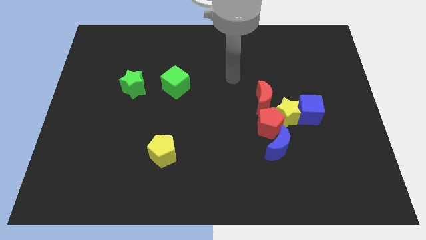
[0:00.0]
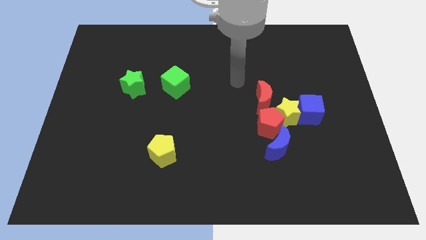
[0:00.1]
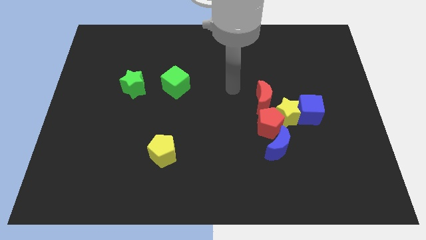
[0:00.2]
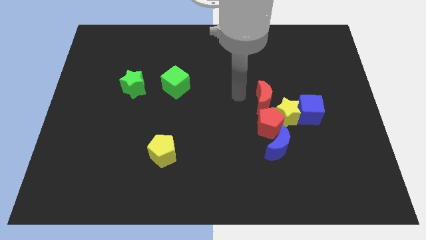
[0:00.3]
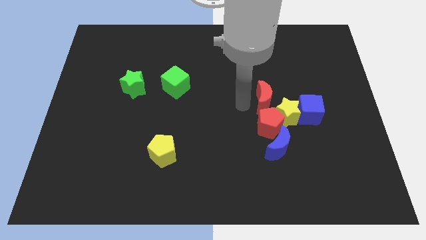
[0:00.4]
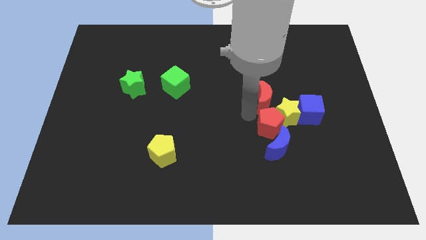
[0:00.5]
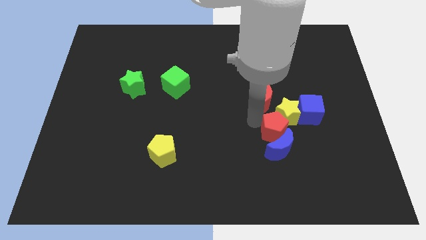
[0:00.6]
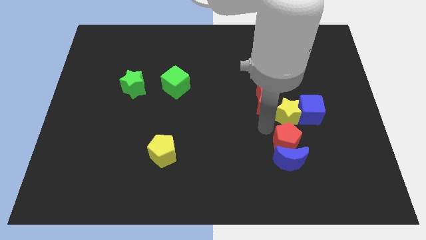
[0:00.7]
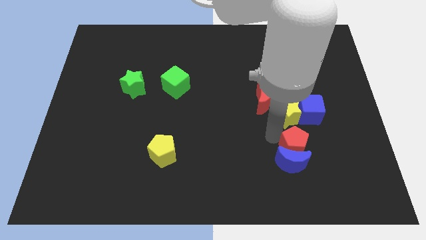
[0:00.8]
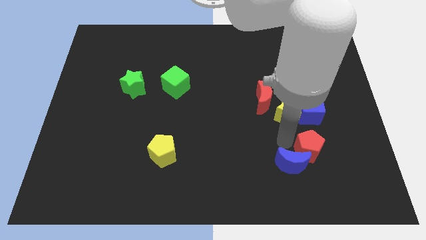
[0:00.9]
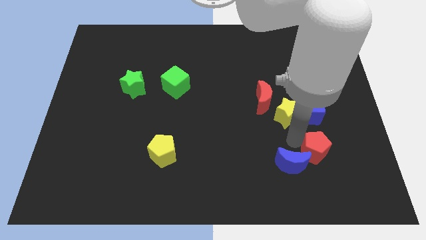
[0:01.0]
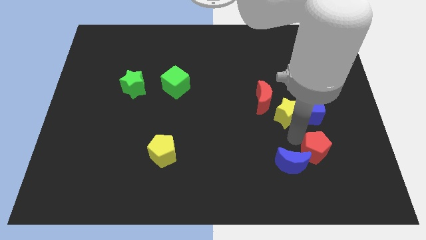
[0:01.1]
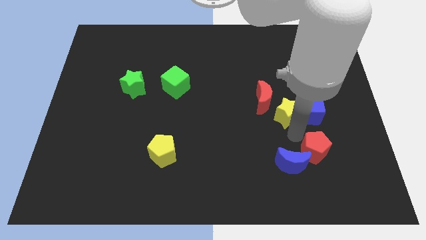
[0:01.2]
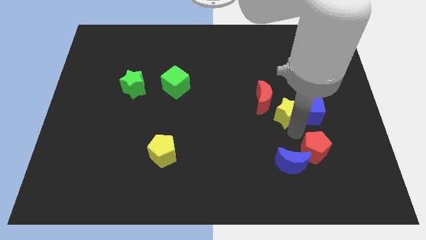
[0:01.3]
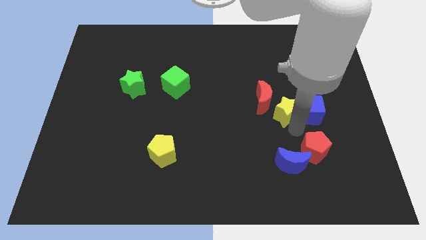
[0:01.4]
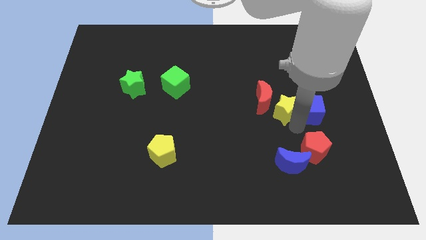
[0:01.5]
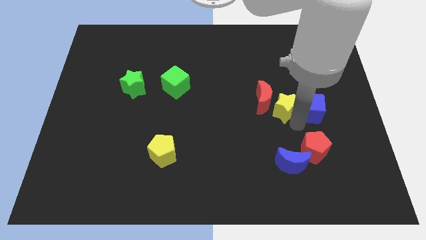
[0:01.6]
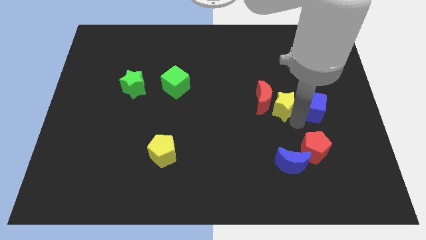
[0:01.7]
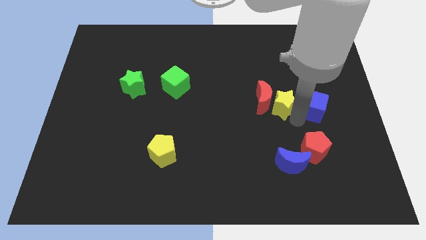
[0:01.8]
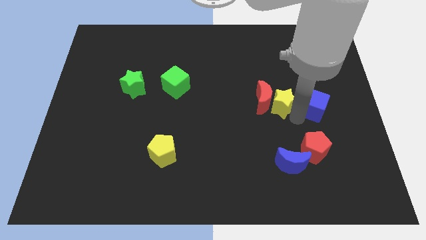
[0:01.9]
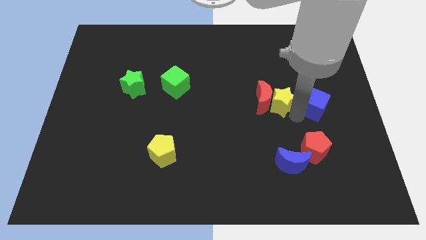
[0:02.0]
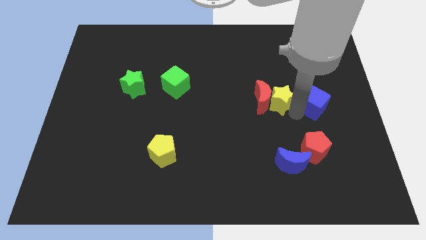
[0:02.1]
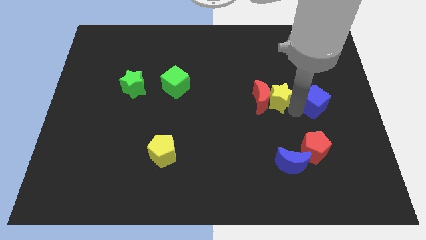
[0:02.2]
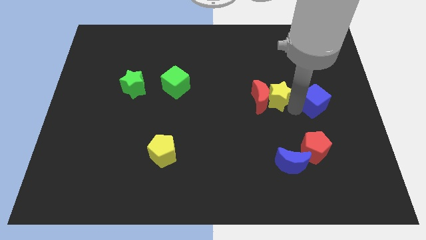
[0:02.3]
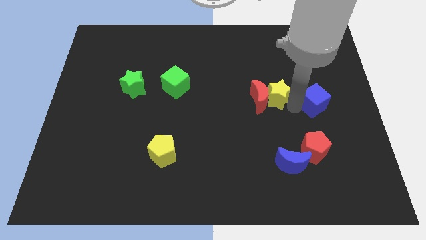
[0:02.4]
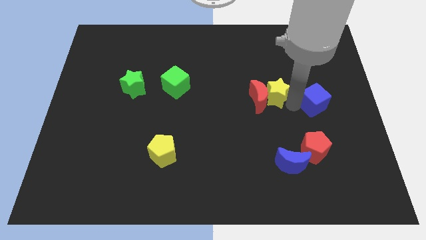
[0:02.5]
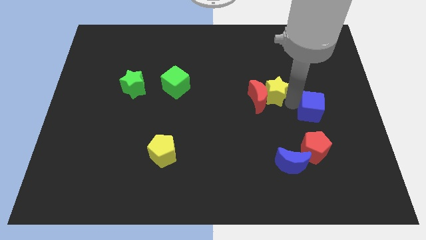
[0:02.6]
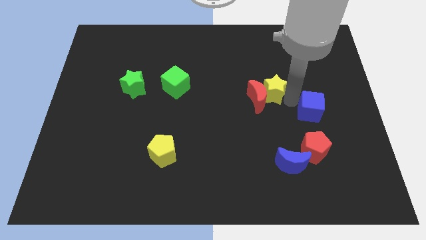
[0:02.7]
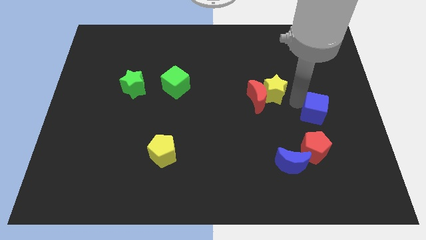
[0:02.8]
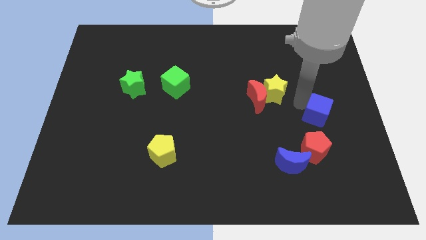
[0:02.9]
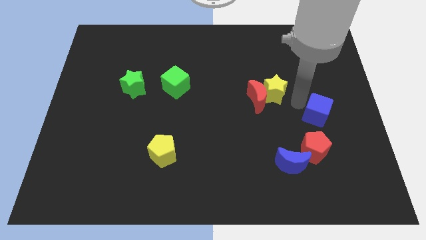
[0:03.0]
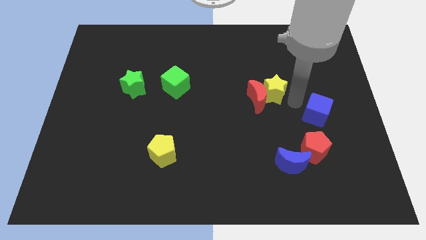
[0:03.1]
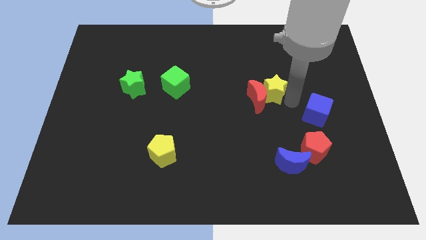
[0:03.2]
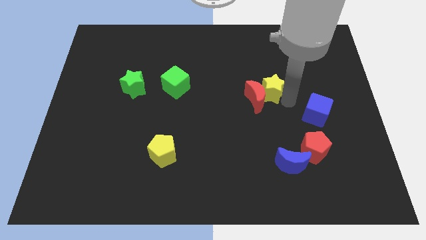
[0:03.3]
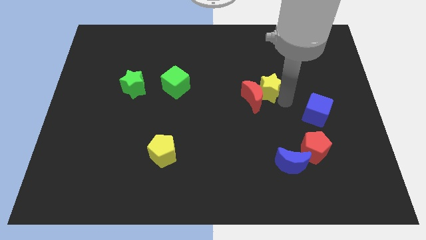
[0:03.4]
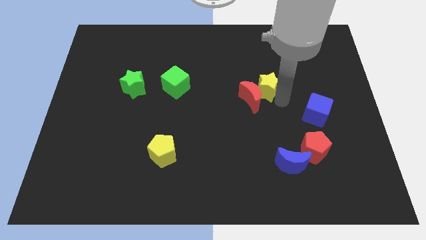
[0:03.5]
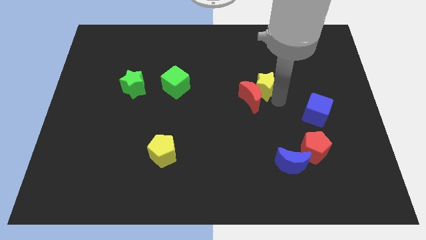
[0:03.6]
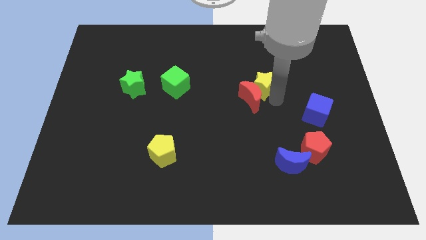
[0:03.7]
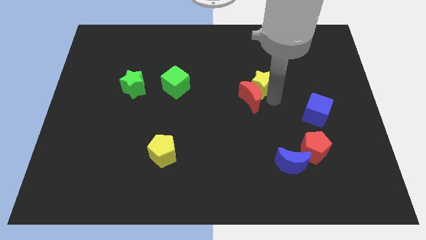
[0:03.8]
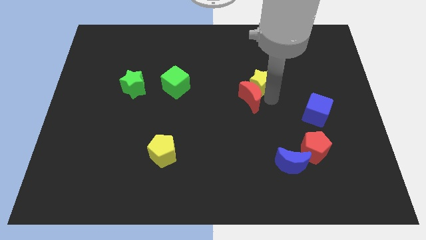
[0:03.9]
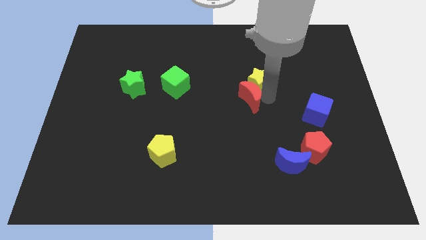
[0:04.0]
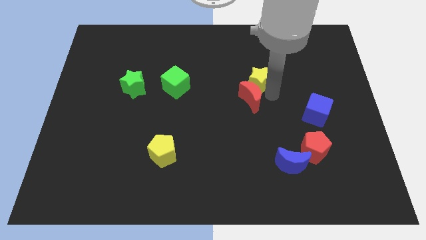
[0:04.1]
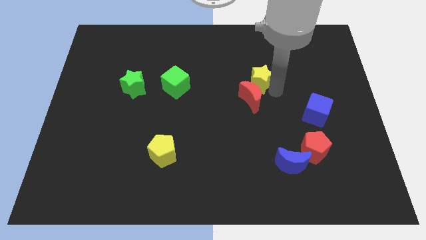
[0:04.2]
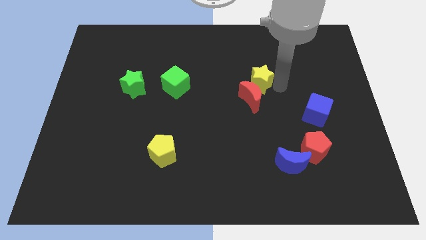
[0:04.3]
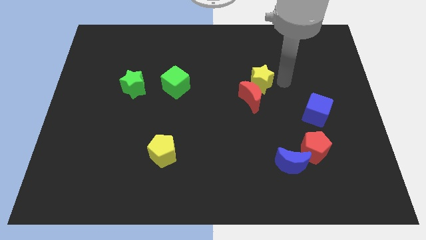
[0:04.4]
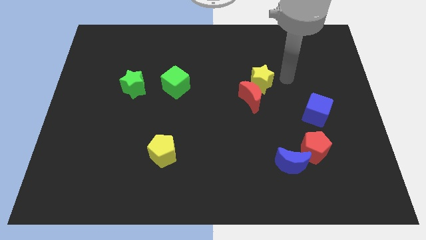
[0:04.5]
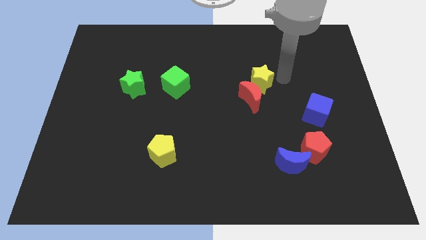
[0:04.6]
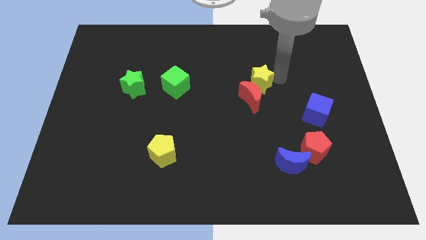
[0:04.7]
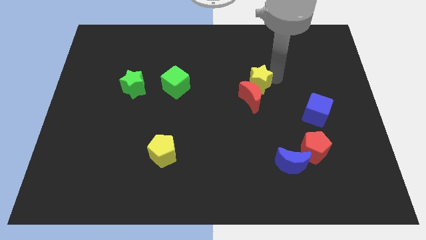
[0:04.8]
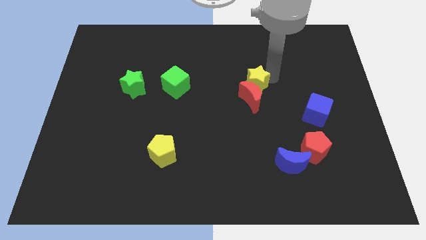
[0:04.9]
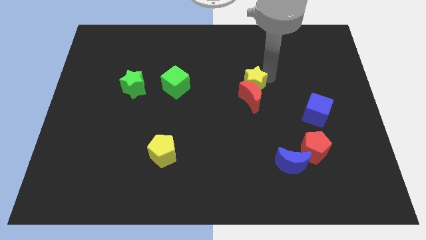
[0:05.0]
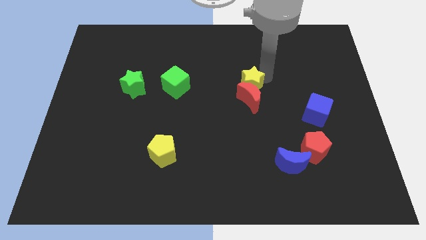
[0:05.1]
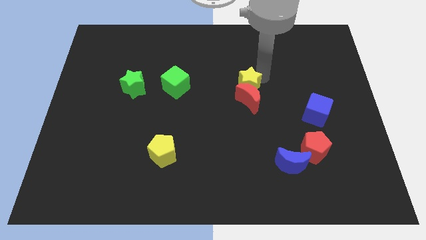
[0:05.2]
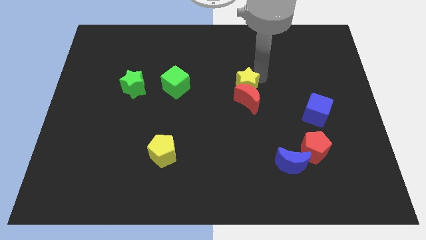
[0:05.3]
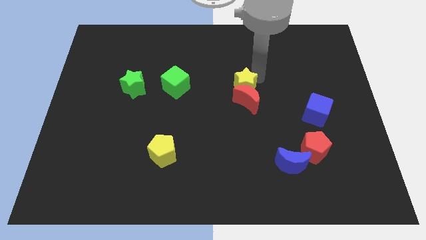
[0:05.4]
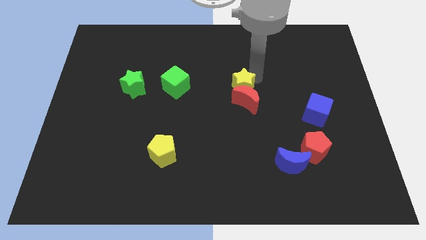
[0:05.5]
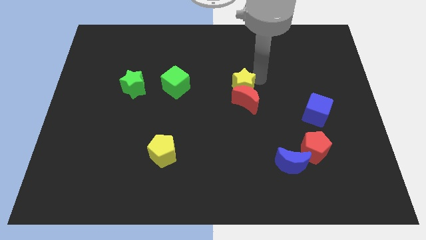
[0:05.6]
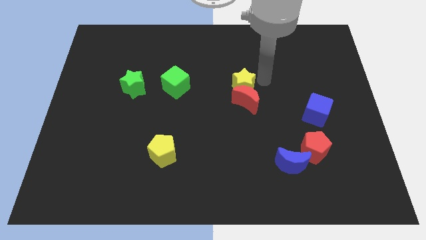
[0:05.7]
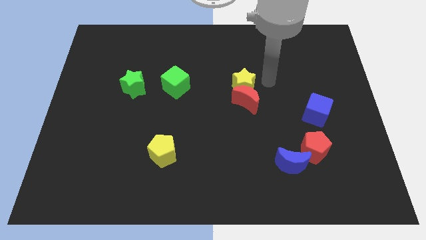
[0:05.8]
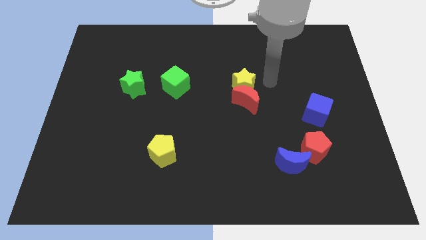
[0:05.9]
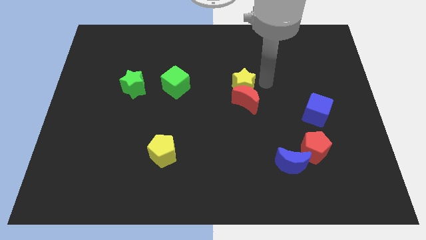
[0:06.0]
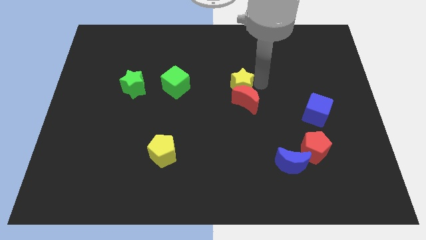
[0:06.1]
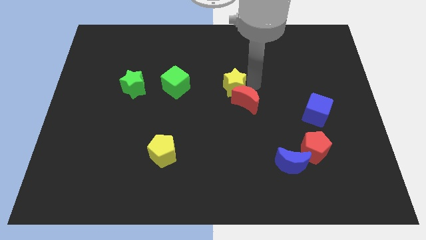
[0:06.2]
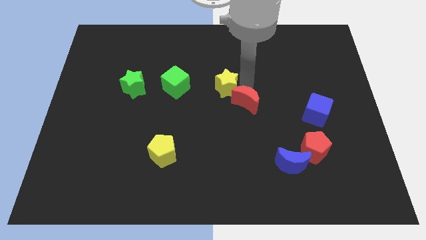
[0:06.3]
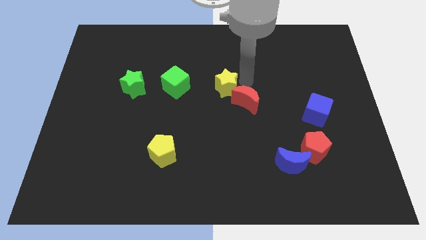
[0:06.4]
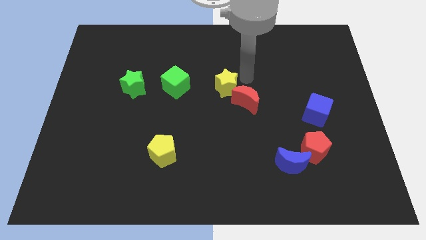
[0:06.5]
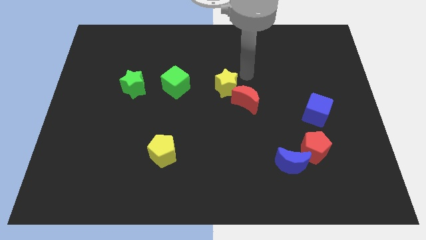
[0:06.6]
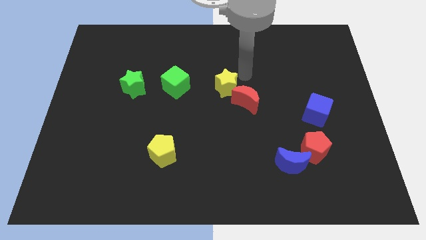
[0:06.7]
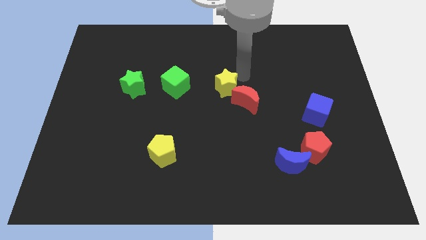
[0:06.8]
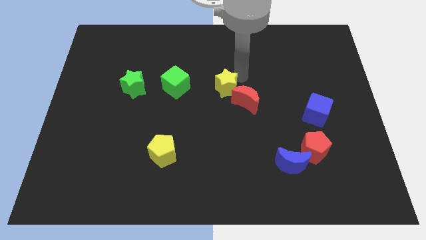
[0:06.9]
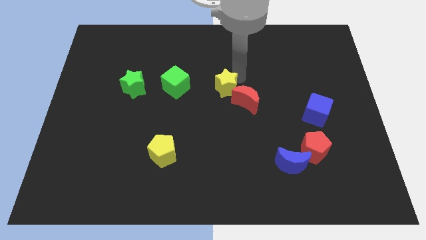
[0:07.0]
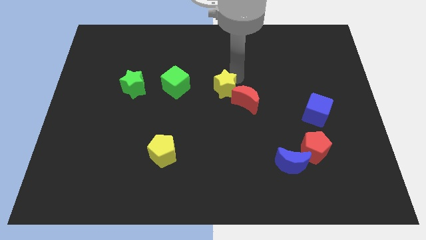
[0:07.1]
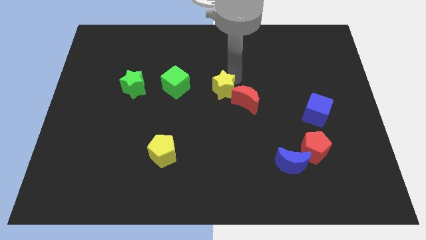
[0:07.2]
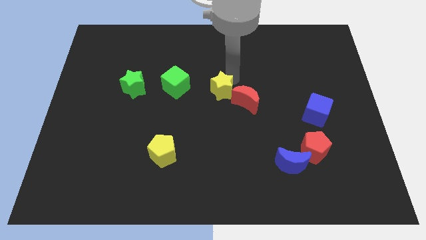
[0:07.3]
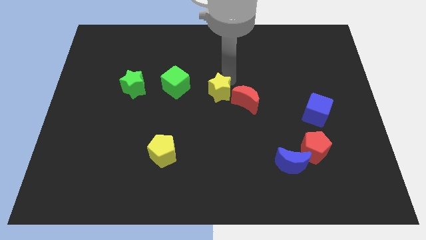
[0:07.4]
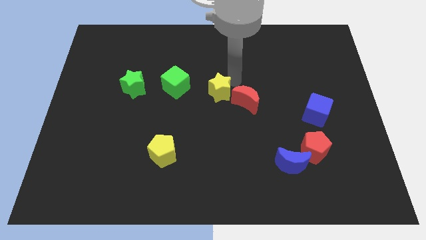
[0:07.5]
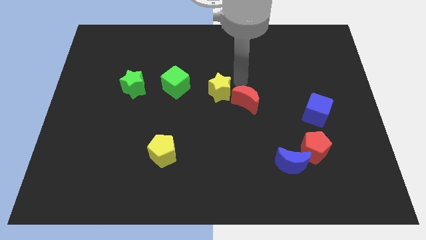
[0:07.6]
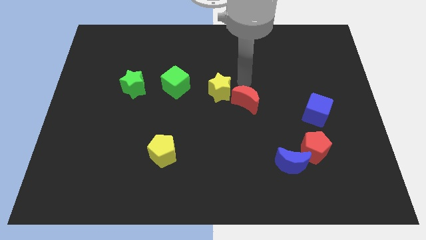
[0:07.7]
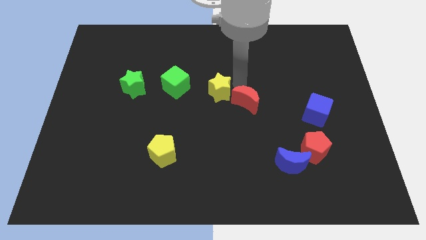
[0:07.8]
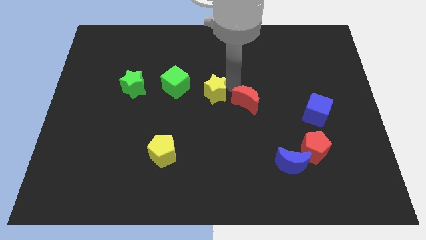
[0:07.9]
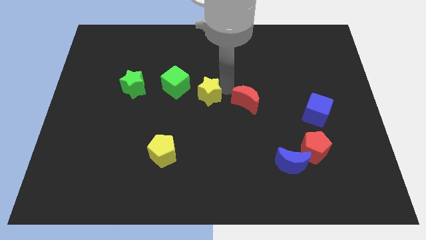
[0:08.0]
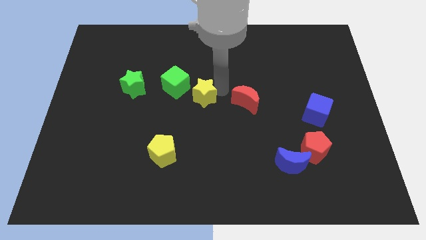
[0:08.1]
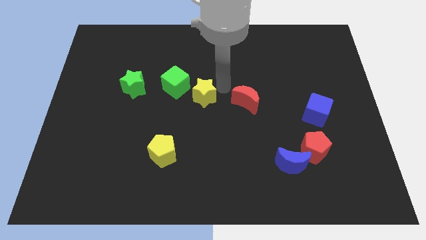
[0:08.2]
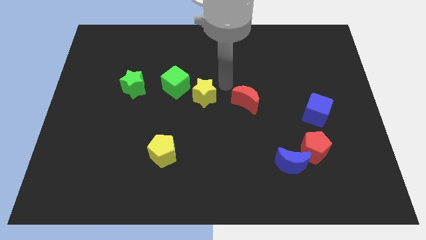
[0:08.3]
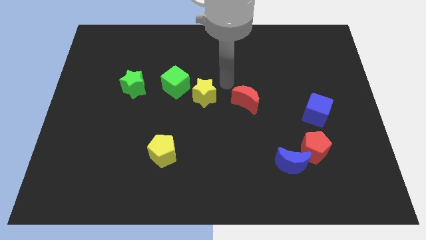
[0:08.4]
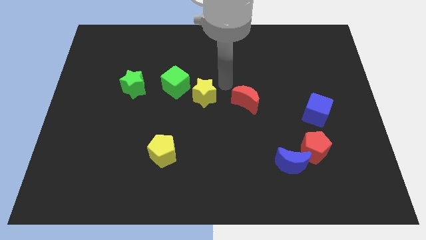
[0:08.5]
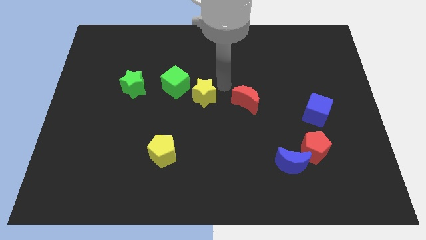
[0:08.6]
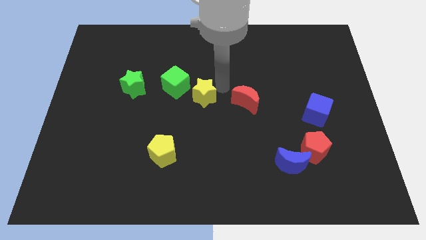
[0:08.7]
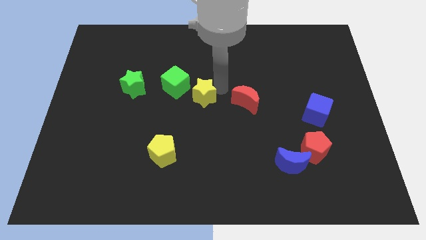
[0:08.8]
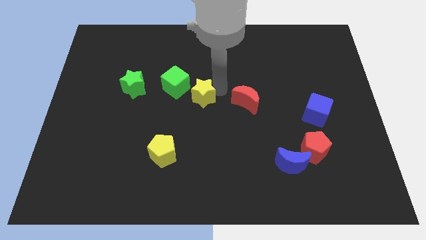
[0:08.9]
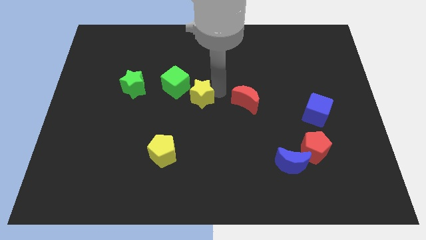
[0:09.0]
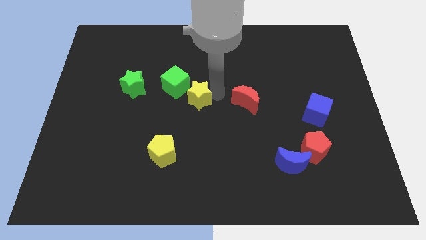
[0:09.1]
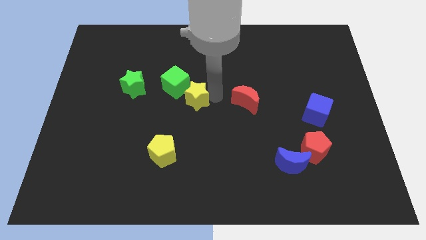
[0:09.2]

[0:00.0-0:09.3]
push the yellow star left
